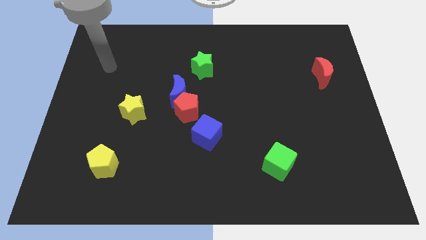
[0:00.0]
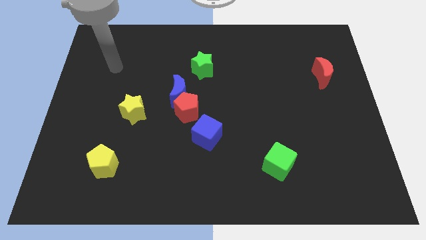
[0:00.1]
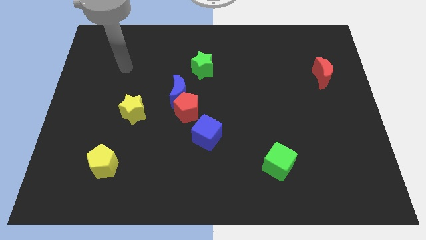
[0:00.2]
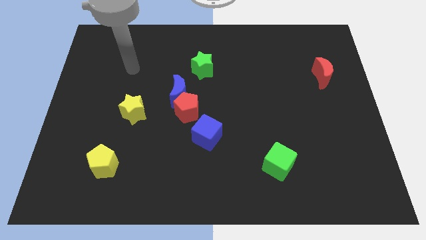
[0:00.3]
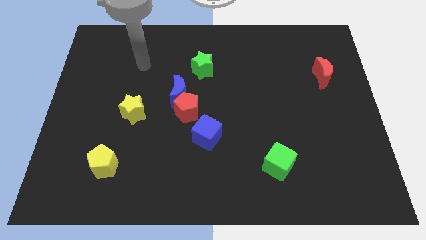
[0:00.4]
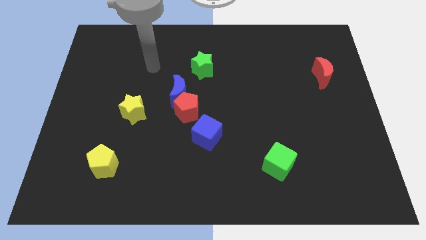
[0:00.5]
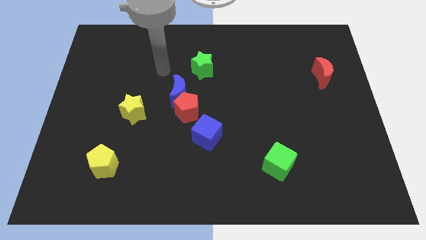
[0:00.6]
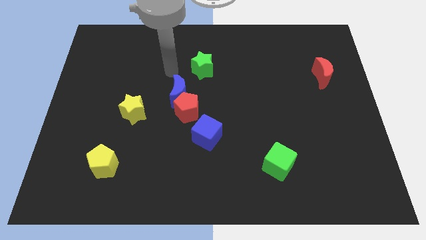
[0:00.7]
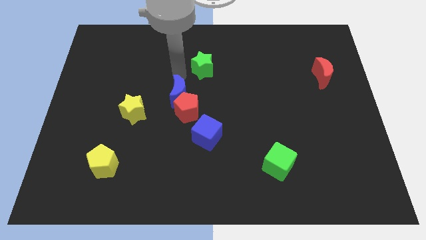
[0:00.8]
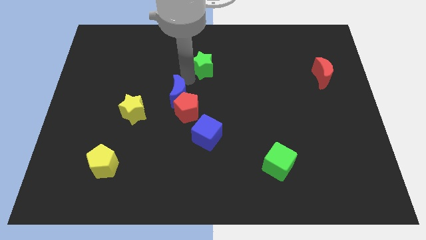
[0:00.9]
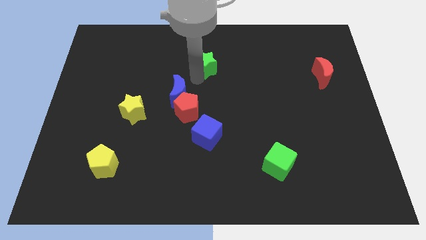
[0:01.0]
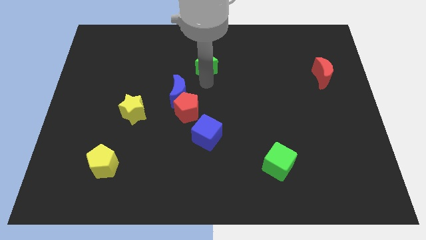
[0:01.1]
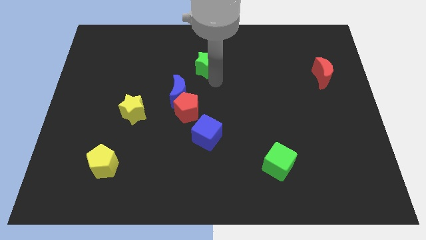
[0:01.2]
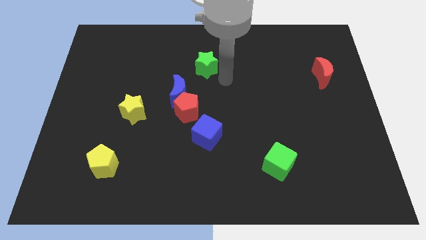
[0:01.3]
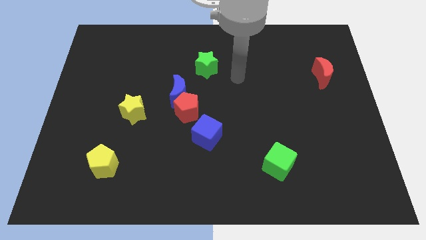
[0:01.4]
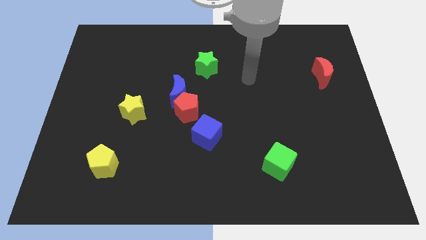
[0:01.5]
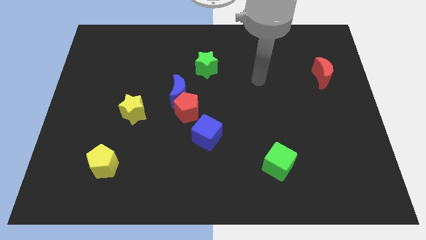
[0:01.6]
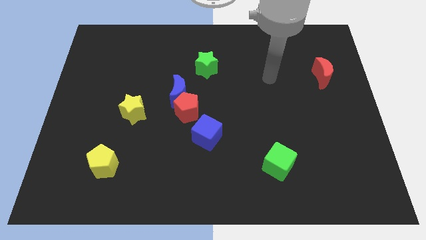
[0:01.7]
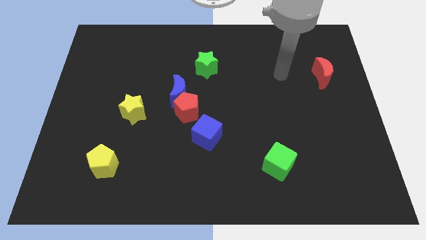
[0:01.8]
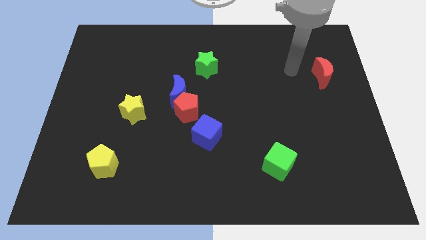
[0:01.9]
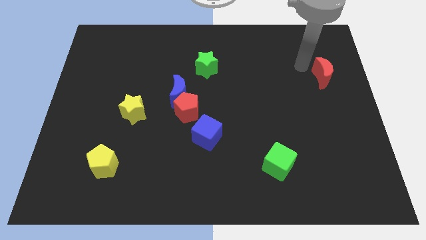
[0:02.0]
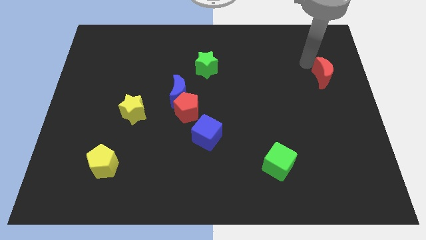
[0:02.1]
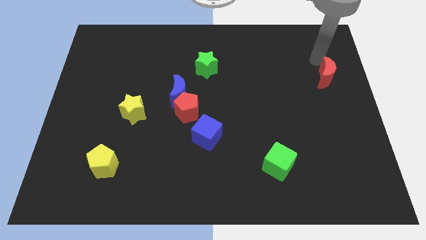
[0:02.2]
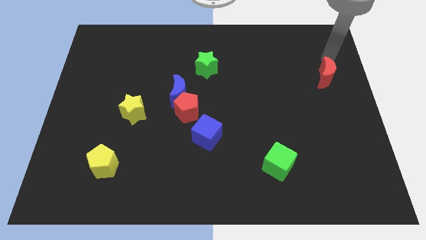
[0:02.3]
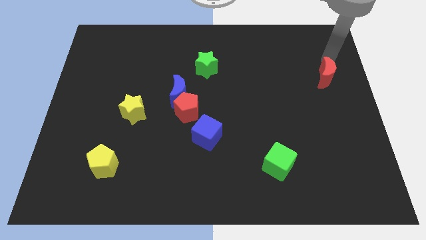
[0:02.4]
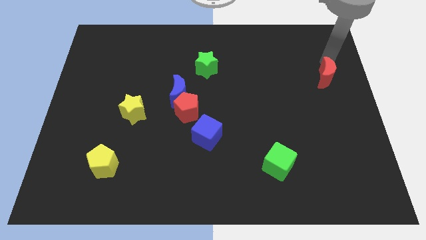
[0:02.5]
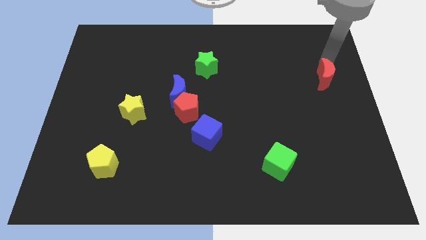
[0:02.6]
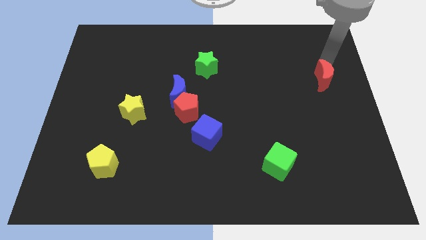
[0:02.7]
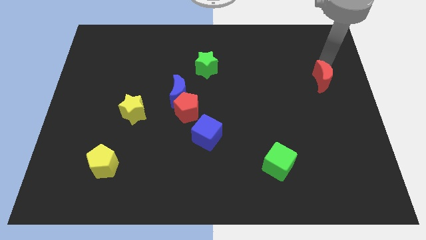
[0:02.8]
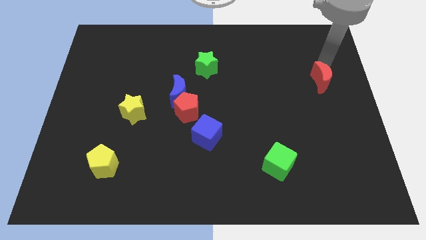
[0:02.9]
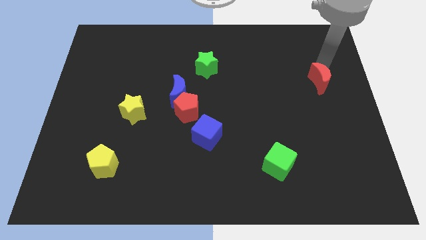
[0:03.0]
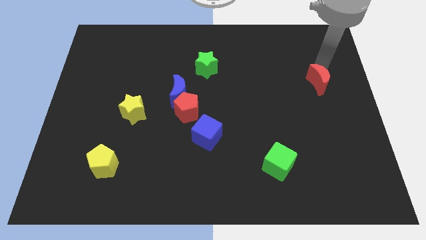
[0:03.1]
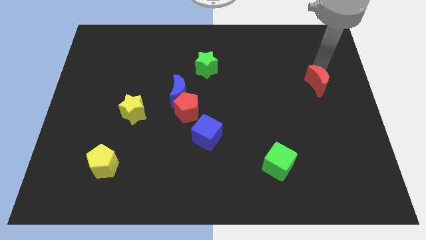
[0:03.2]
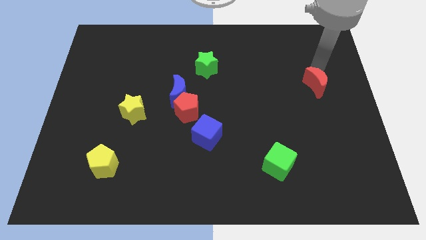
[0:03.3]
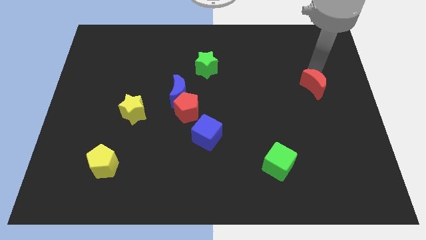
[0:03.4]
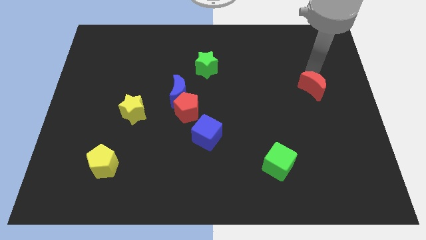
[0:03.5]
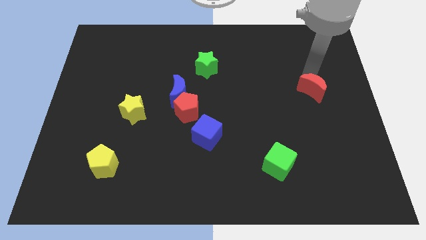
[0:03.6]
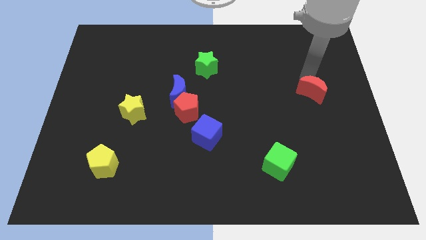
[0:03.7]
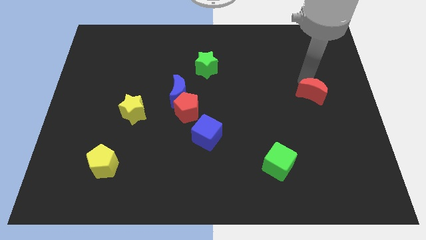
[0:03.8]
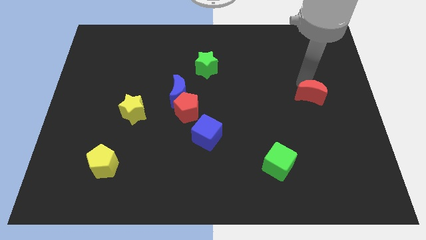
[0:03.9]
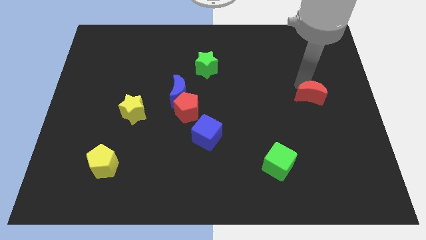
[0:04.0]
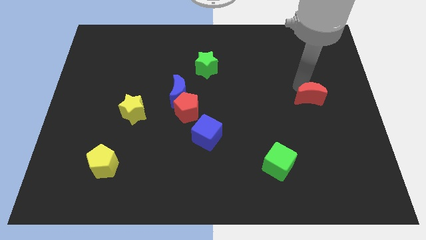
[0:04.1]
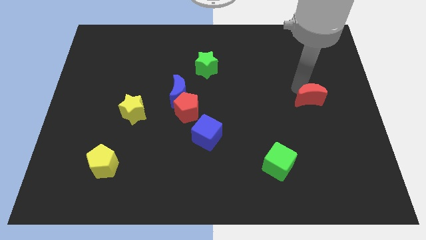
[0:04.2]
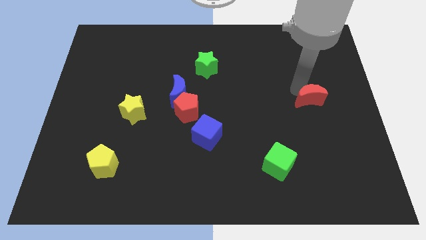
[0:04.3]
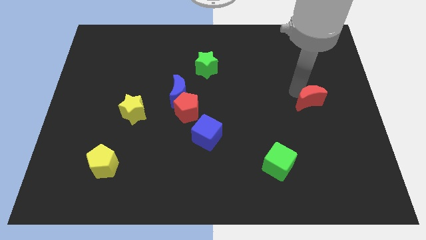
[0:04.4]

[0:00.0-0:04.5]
push the red moon downwards a bit

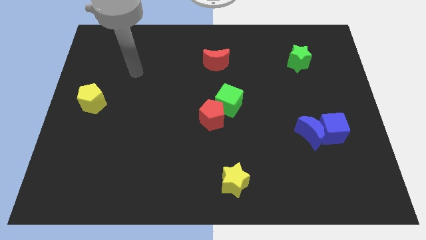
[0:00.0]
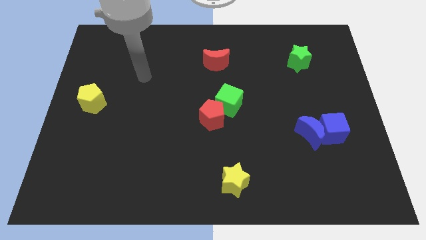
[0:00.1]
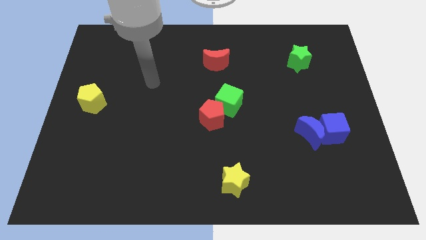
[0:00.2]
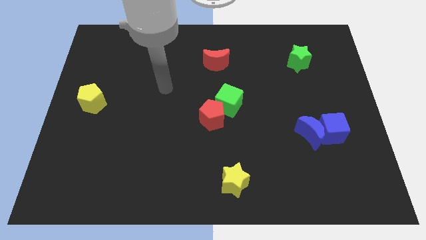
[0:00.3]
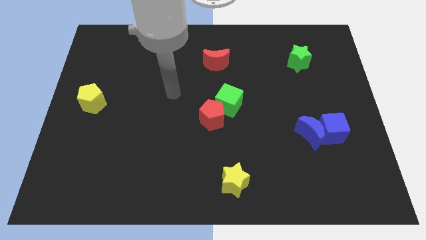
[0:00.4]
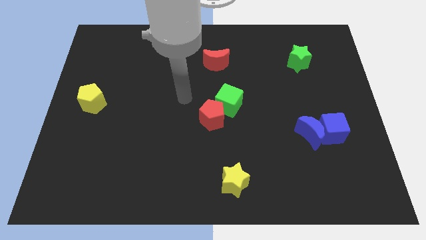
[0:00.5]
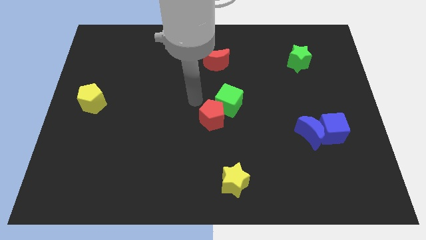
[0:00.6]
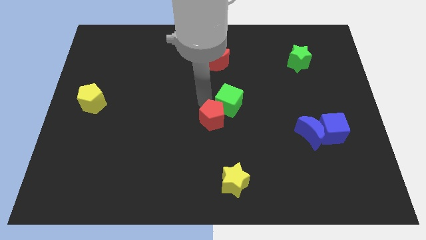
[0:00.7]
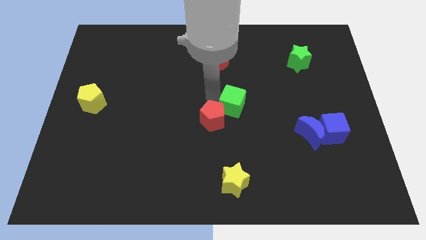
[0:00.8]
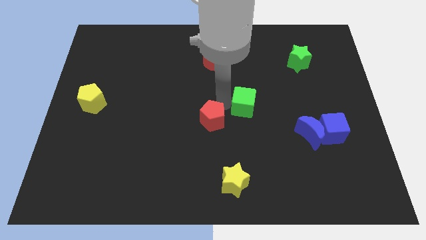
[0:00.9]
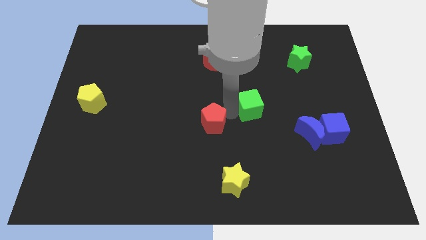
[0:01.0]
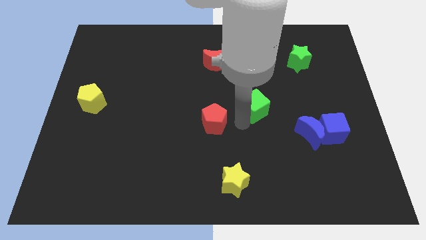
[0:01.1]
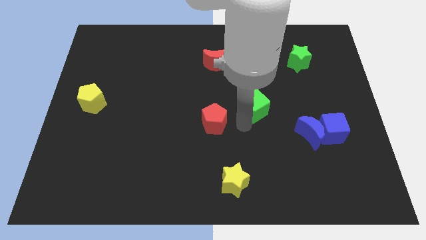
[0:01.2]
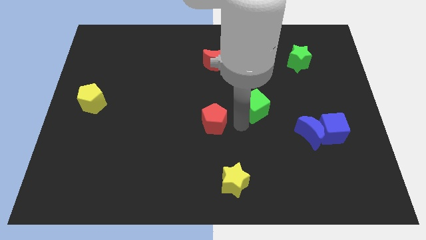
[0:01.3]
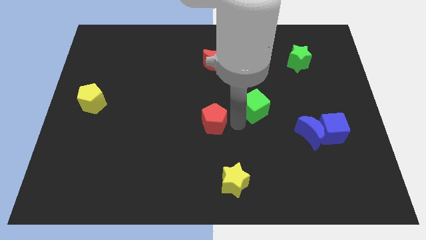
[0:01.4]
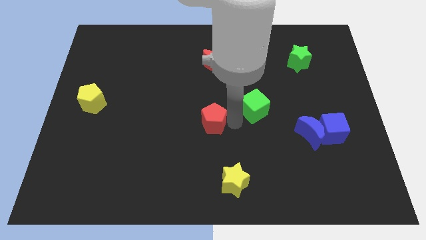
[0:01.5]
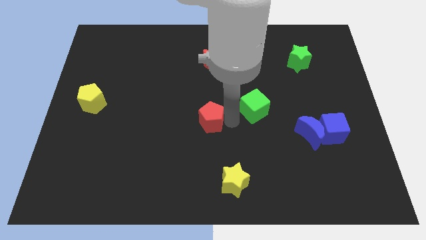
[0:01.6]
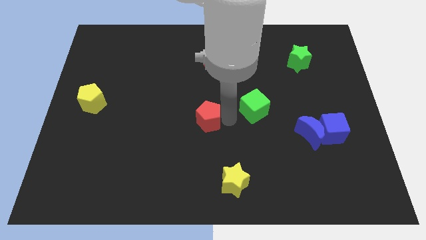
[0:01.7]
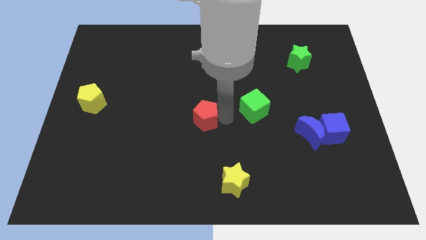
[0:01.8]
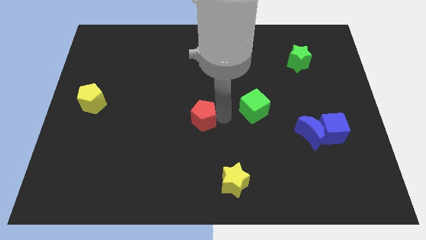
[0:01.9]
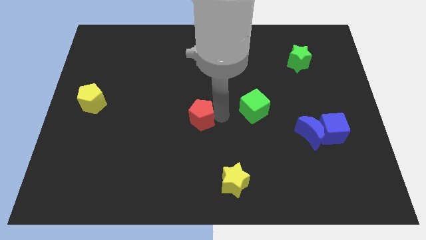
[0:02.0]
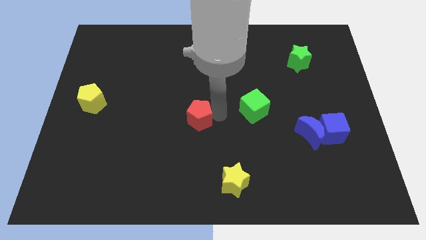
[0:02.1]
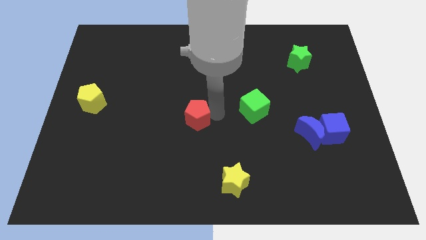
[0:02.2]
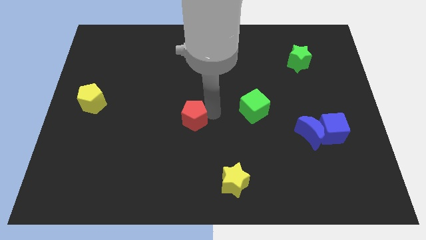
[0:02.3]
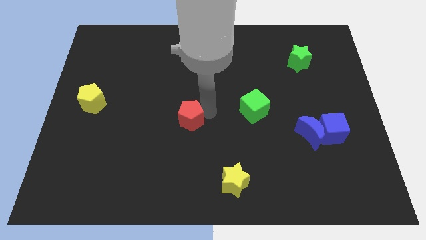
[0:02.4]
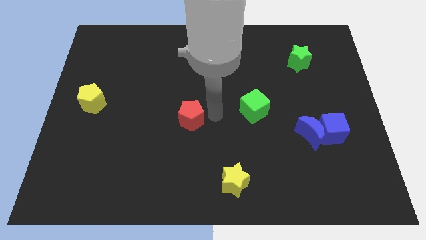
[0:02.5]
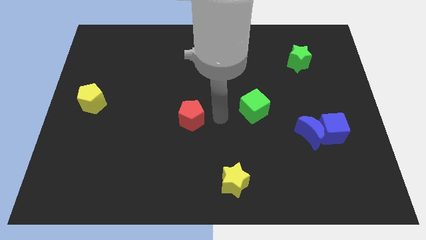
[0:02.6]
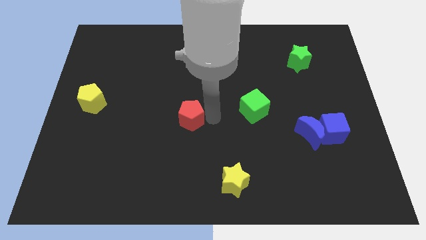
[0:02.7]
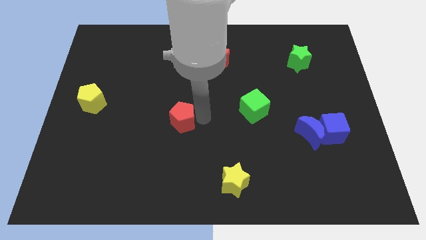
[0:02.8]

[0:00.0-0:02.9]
slide the red pentagon left slightly

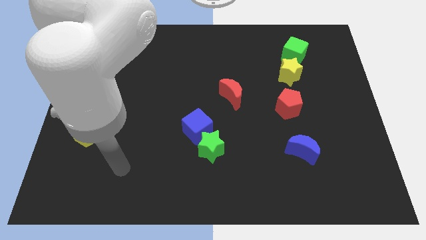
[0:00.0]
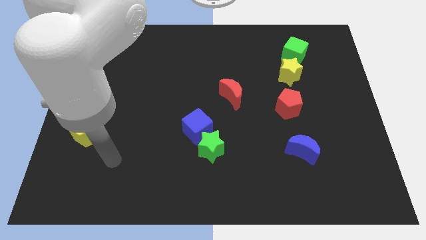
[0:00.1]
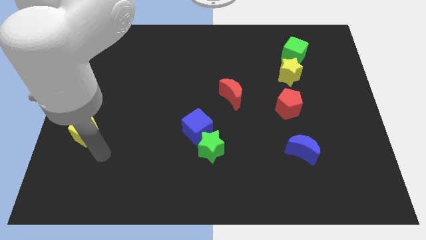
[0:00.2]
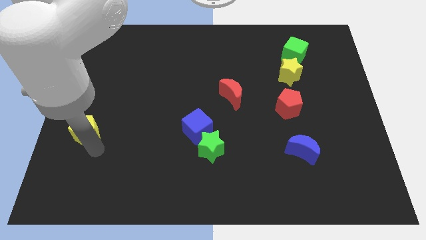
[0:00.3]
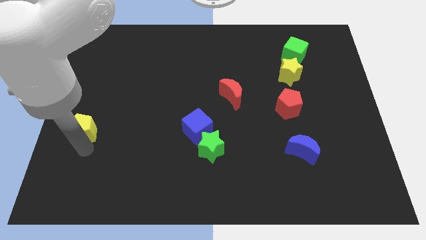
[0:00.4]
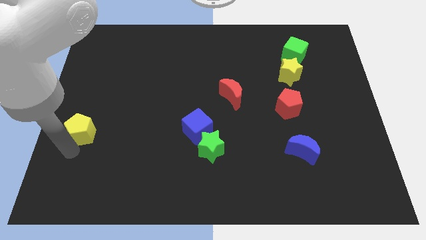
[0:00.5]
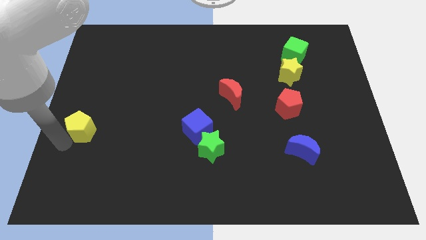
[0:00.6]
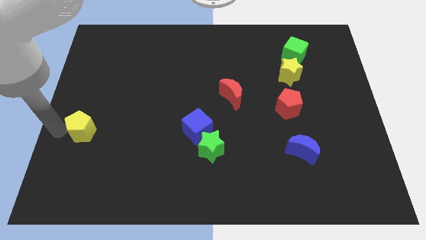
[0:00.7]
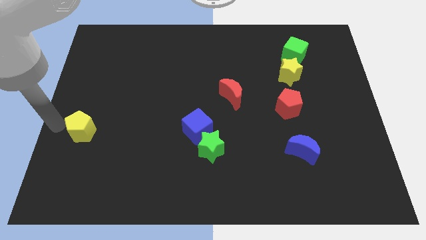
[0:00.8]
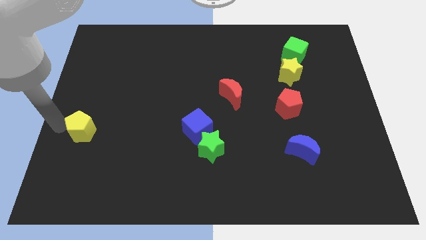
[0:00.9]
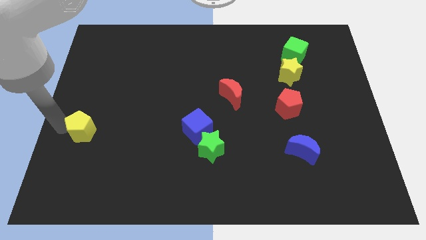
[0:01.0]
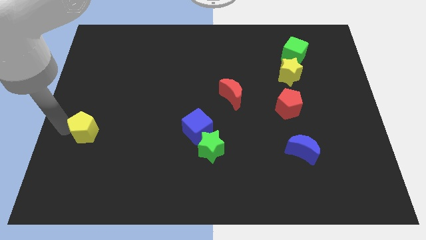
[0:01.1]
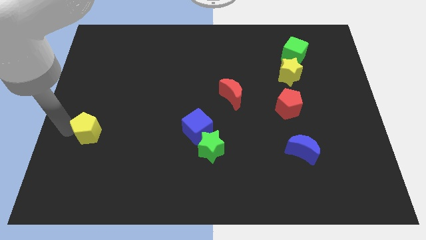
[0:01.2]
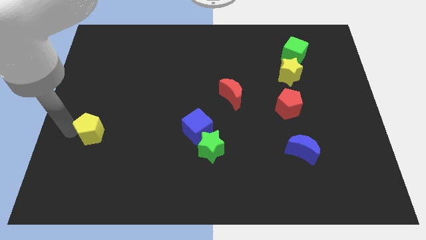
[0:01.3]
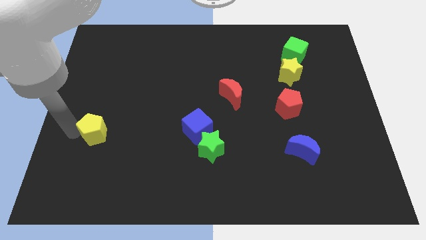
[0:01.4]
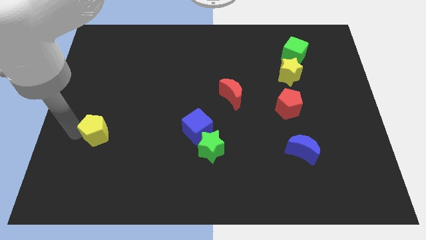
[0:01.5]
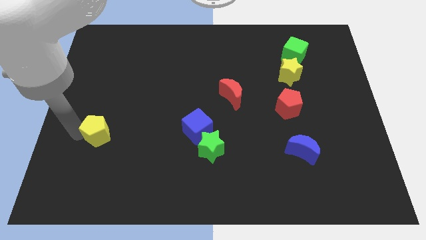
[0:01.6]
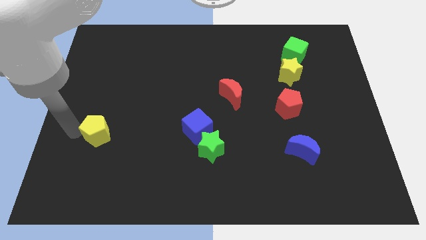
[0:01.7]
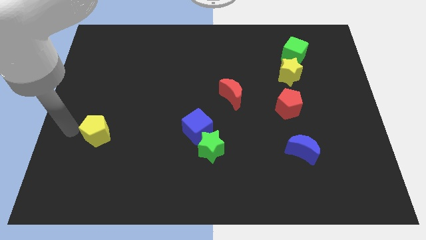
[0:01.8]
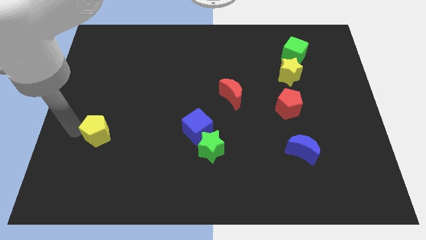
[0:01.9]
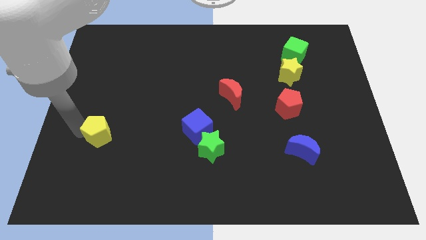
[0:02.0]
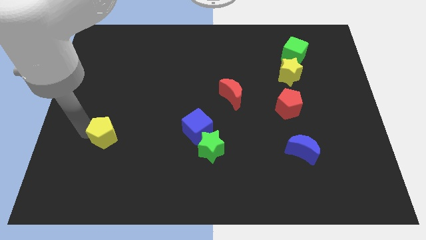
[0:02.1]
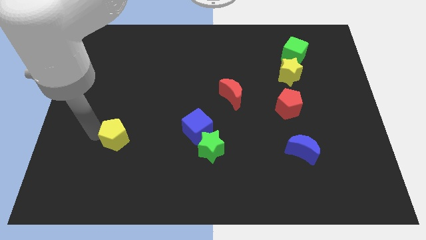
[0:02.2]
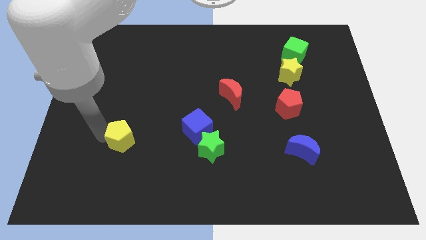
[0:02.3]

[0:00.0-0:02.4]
slightly push the yellow pentagon right
